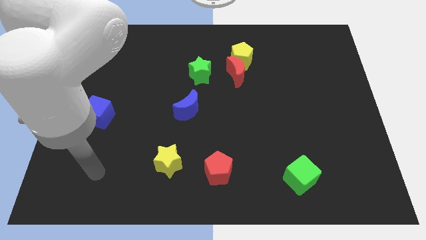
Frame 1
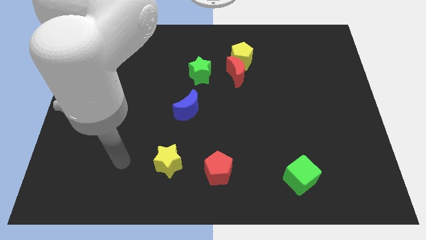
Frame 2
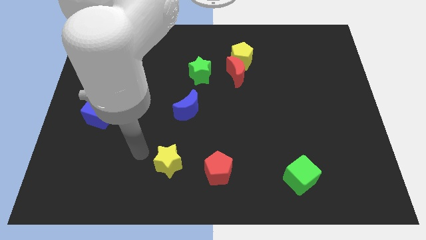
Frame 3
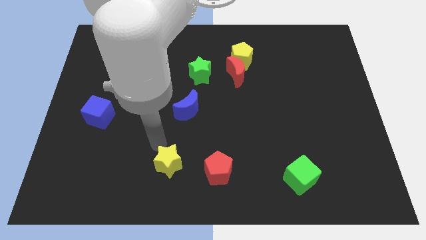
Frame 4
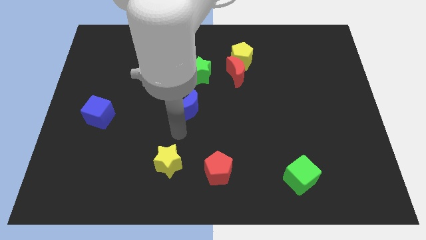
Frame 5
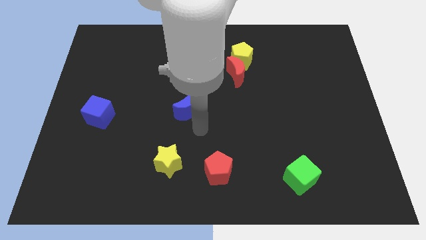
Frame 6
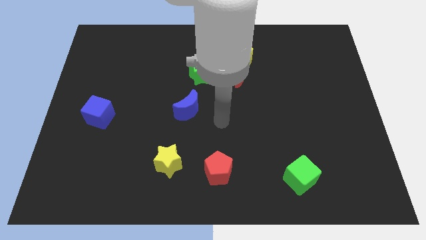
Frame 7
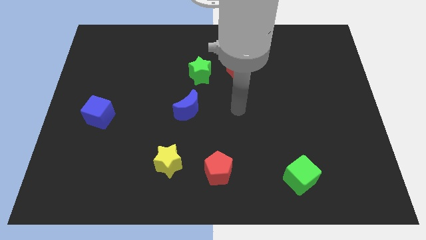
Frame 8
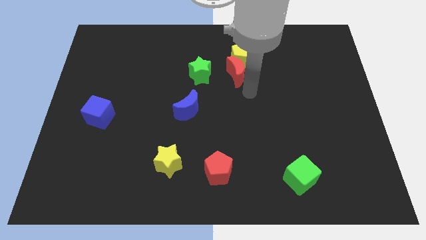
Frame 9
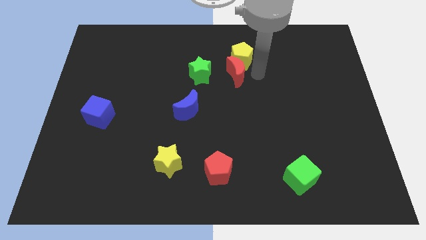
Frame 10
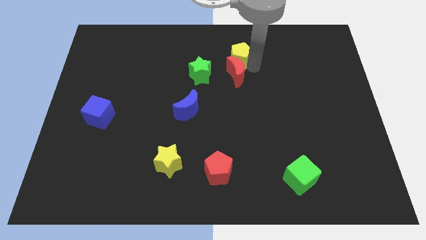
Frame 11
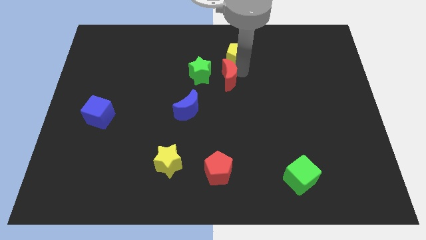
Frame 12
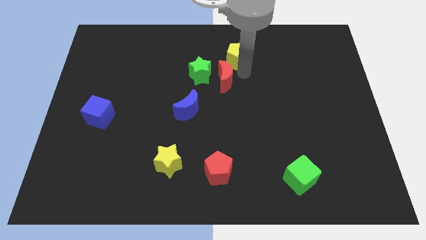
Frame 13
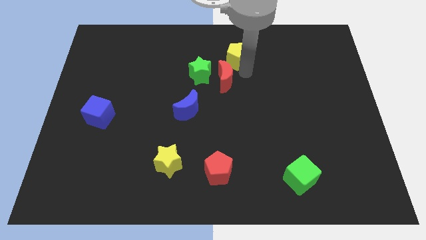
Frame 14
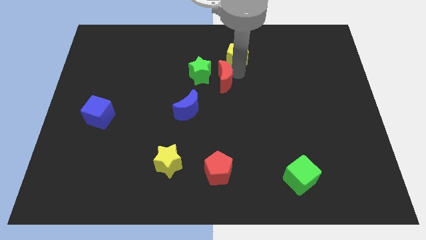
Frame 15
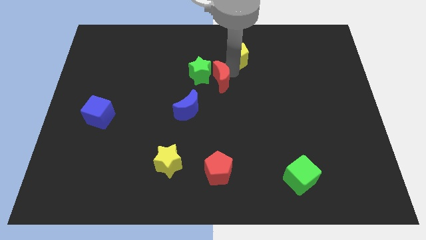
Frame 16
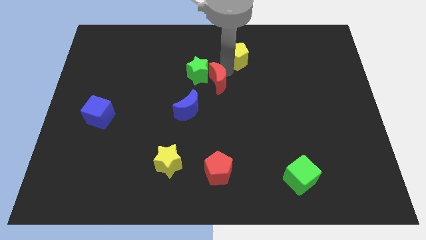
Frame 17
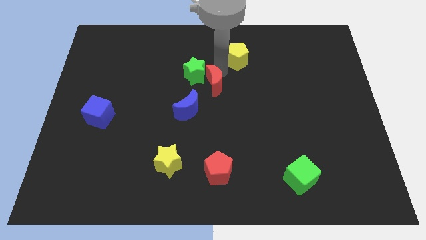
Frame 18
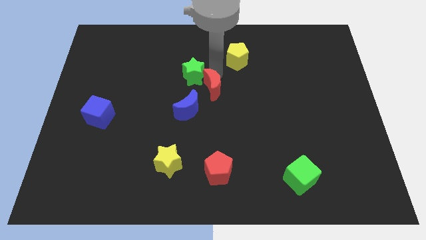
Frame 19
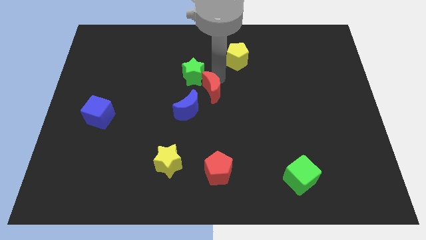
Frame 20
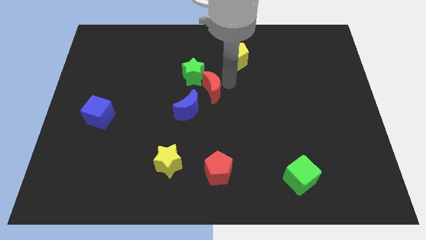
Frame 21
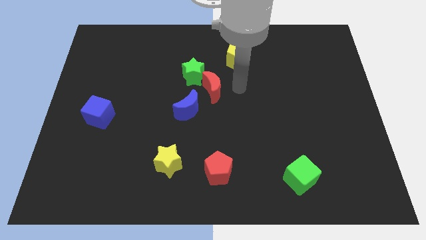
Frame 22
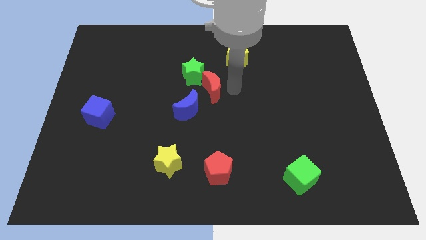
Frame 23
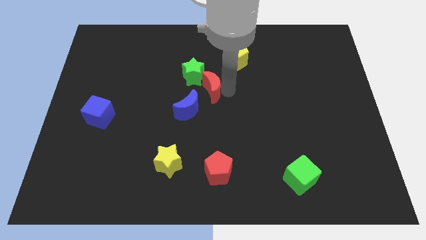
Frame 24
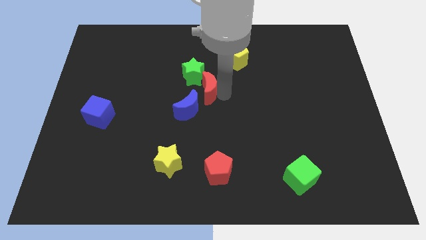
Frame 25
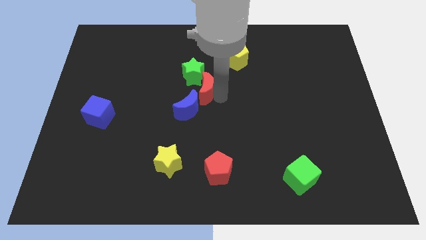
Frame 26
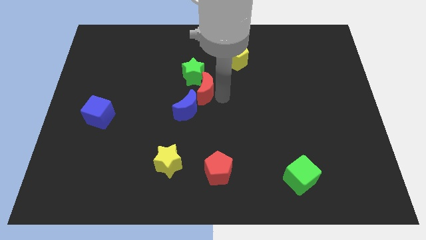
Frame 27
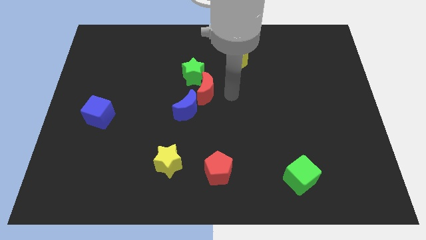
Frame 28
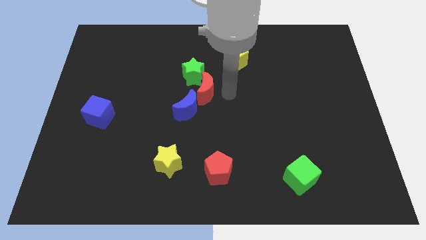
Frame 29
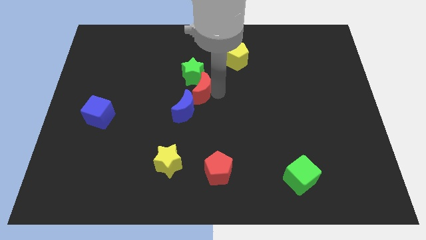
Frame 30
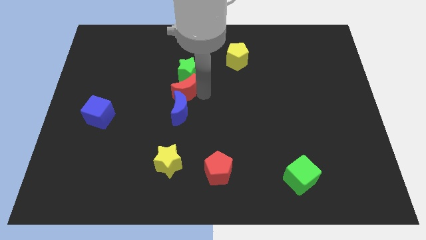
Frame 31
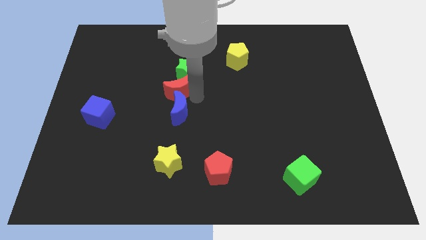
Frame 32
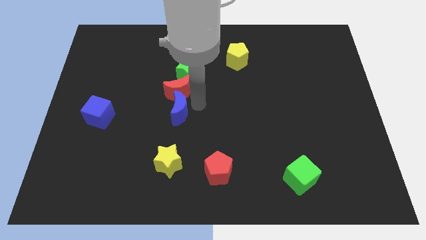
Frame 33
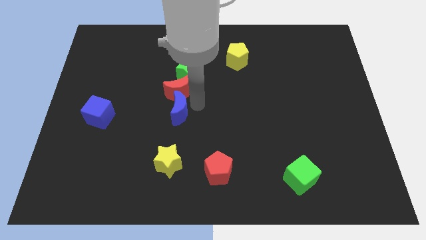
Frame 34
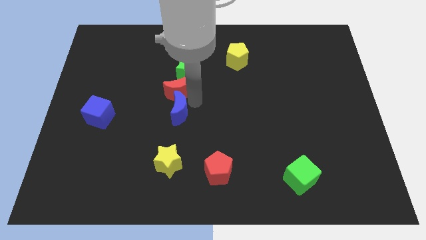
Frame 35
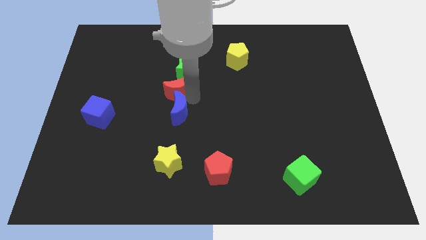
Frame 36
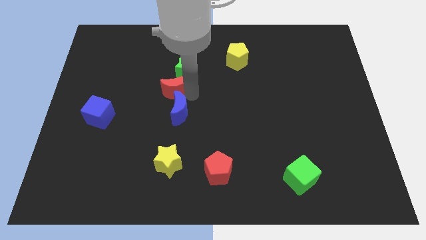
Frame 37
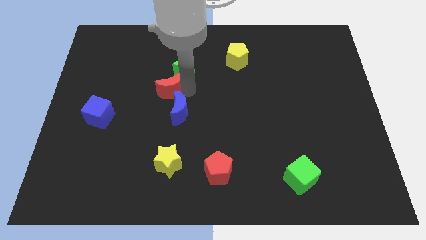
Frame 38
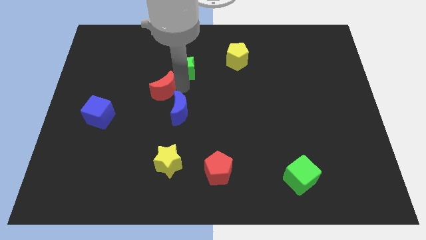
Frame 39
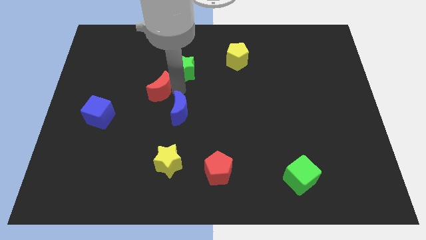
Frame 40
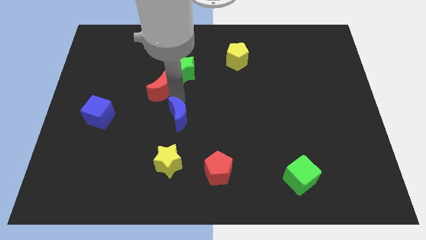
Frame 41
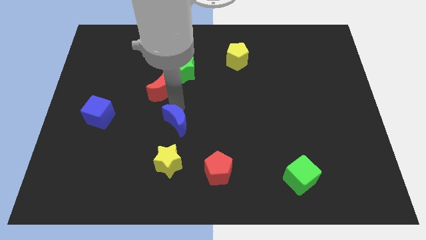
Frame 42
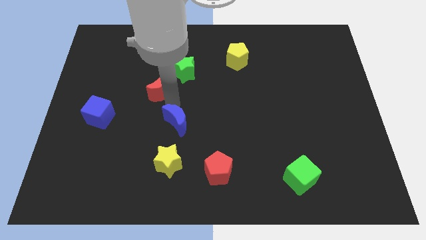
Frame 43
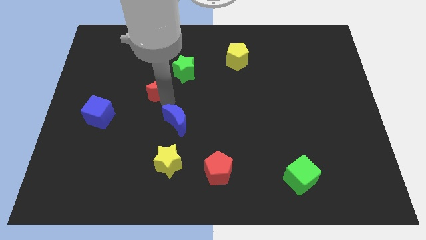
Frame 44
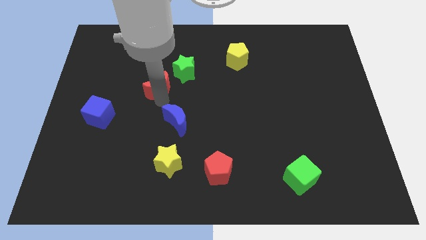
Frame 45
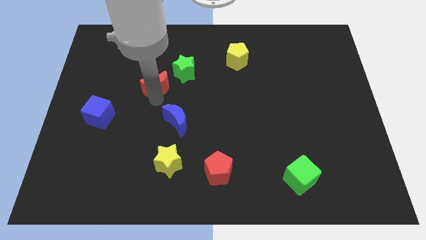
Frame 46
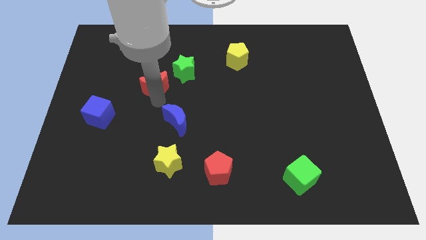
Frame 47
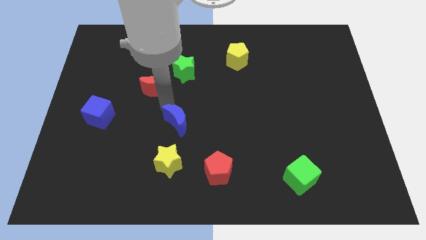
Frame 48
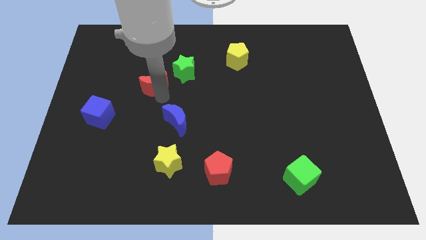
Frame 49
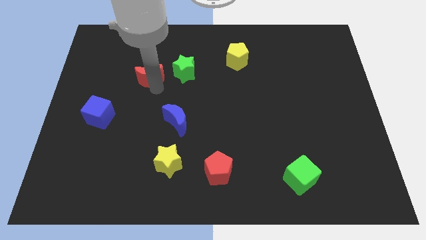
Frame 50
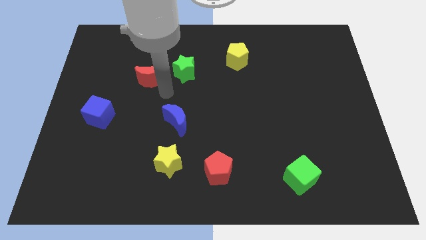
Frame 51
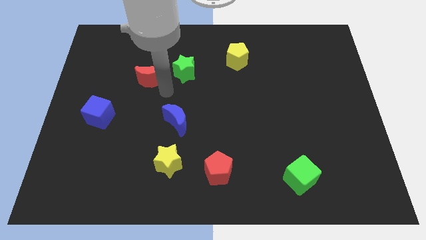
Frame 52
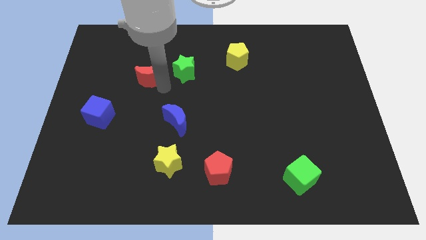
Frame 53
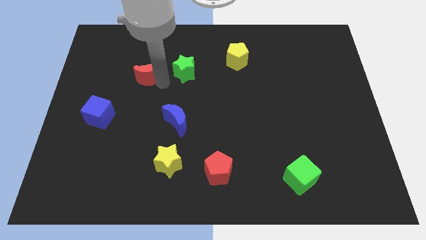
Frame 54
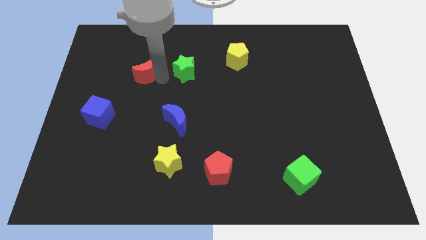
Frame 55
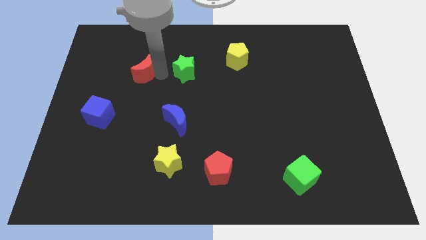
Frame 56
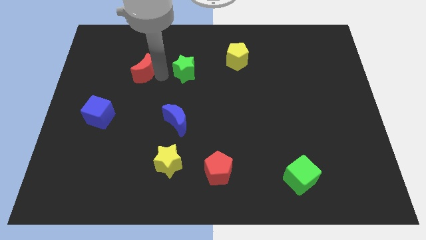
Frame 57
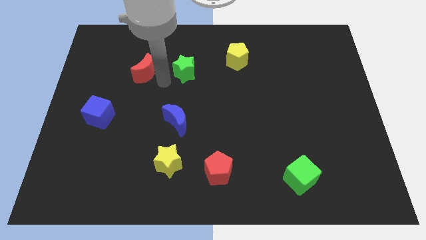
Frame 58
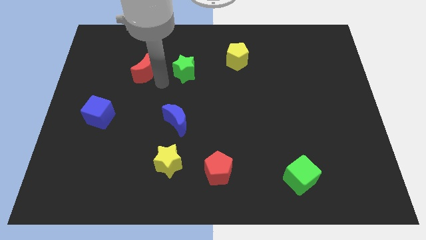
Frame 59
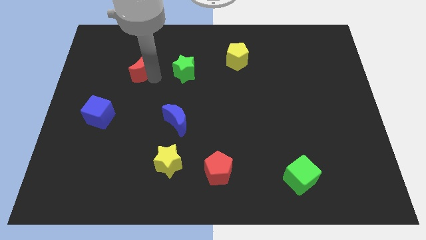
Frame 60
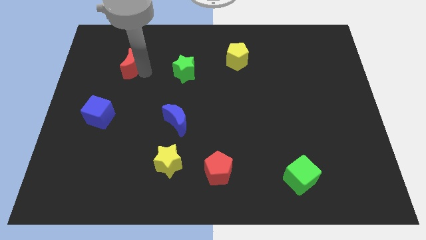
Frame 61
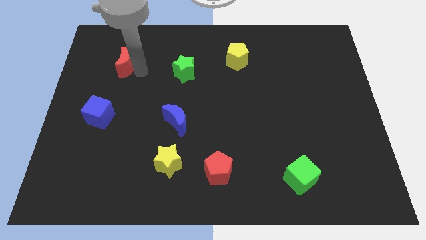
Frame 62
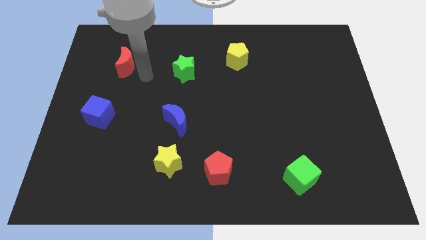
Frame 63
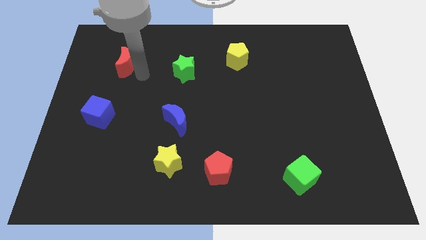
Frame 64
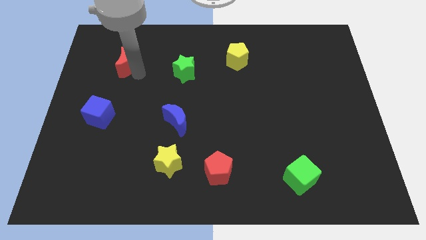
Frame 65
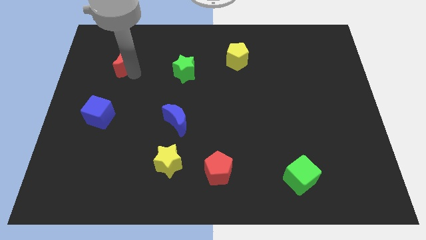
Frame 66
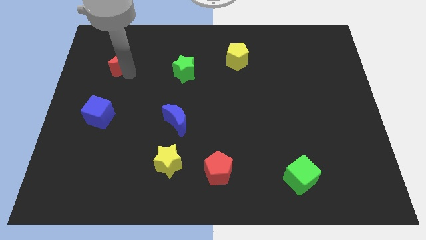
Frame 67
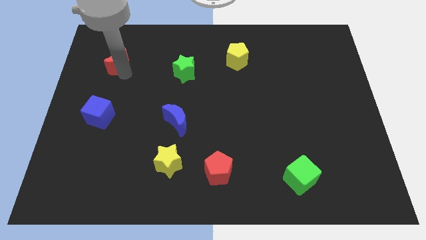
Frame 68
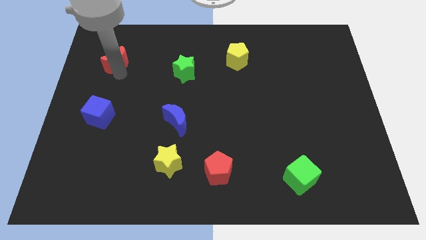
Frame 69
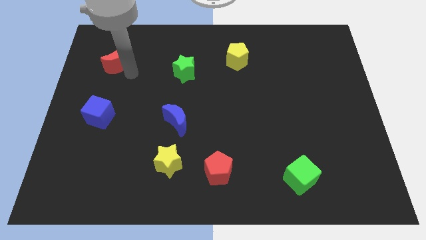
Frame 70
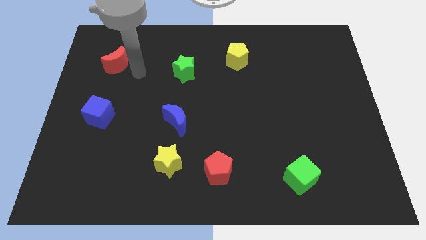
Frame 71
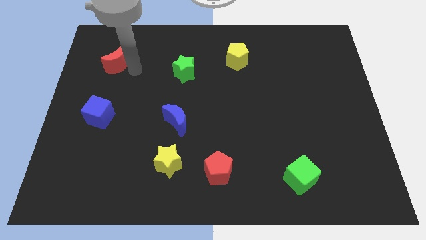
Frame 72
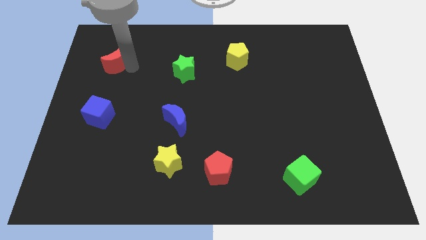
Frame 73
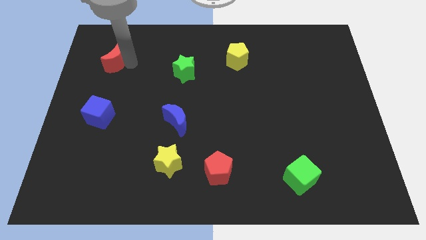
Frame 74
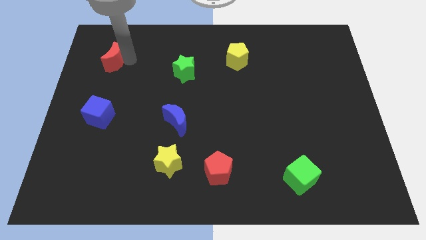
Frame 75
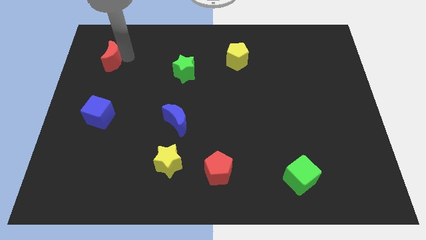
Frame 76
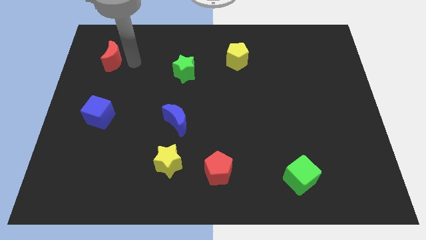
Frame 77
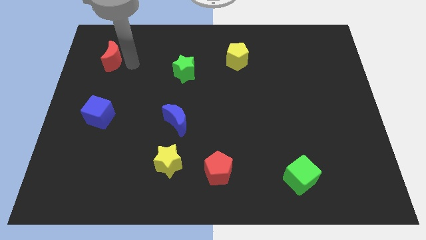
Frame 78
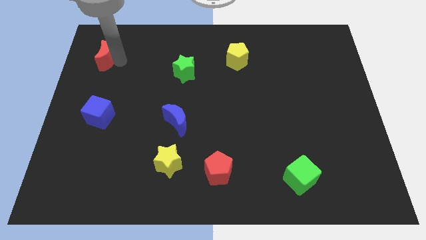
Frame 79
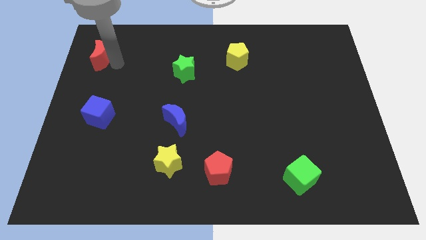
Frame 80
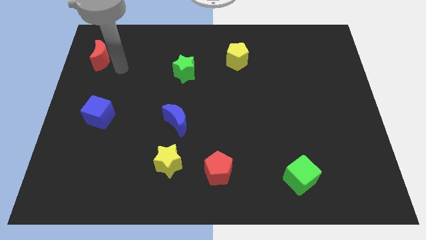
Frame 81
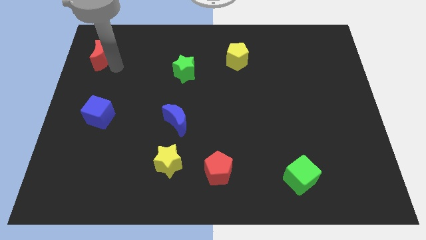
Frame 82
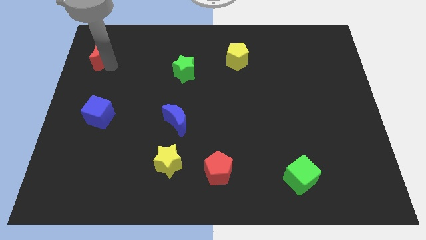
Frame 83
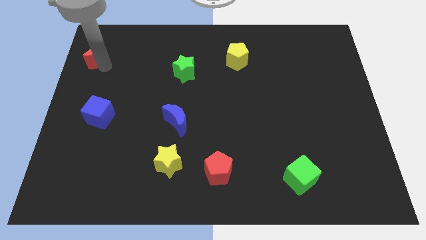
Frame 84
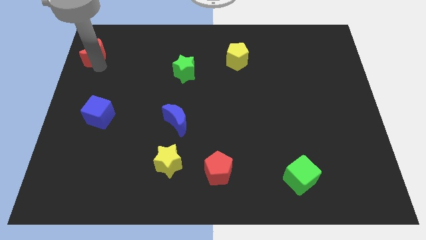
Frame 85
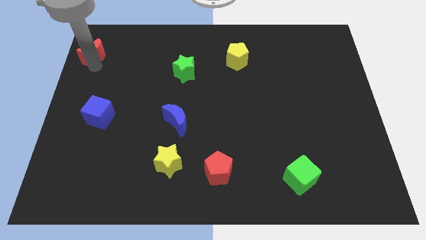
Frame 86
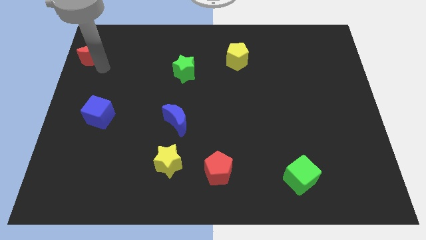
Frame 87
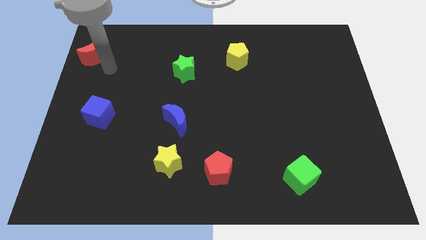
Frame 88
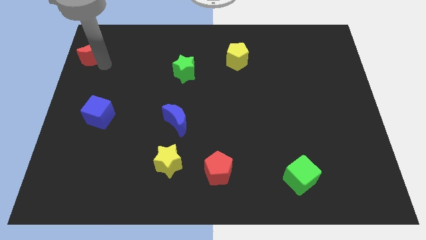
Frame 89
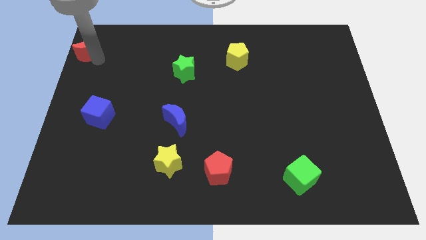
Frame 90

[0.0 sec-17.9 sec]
push the red moon to the top left corner
